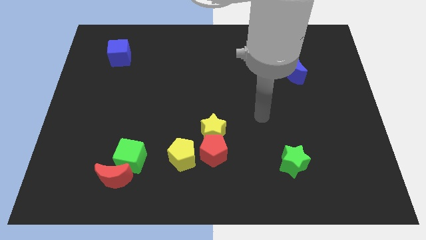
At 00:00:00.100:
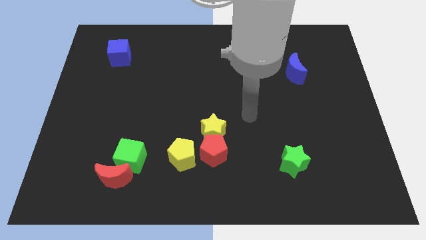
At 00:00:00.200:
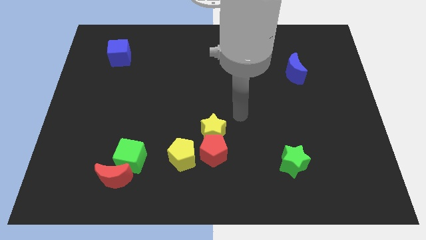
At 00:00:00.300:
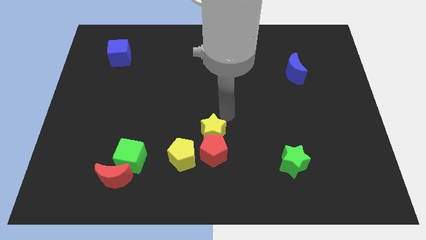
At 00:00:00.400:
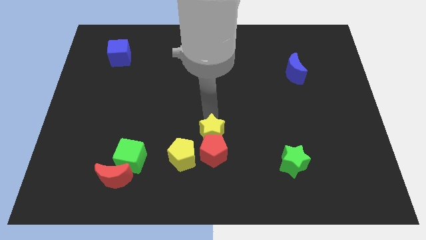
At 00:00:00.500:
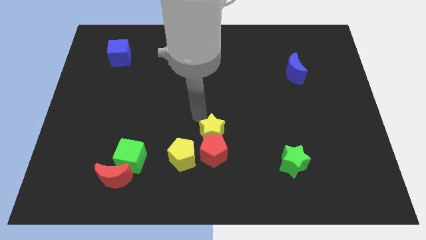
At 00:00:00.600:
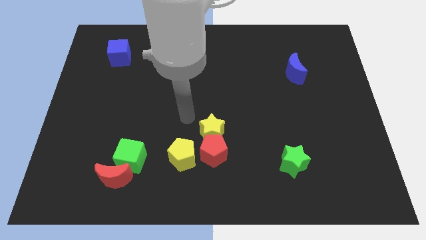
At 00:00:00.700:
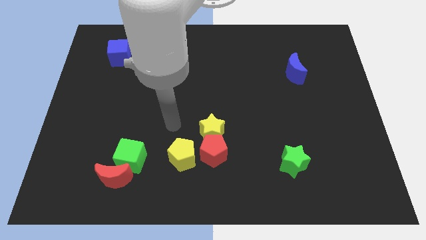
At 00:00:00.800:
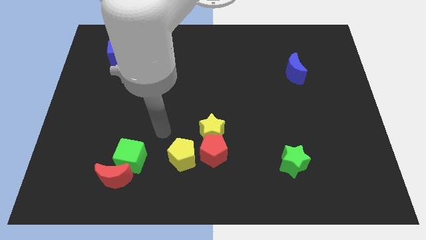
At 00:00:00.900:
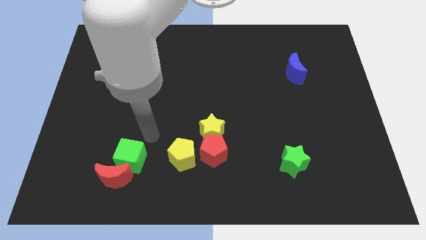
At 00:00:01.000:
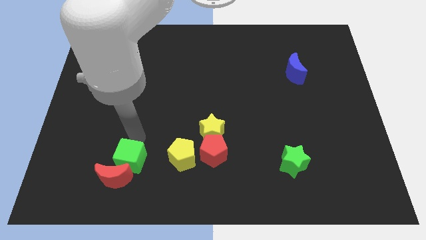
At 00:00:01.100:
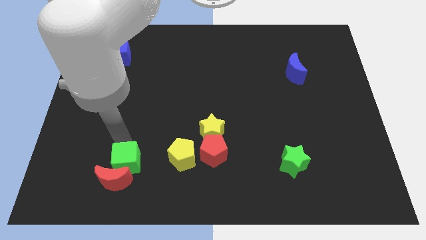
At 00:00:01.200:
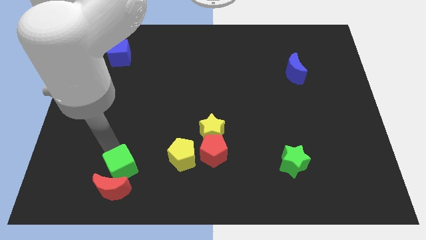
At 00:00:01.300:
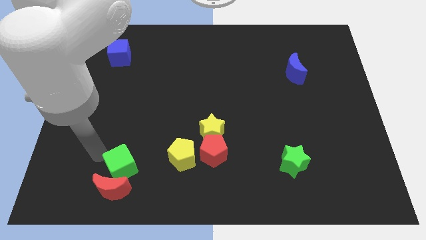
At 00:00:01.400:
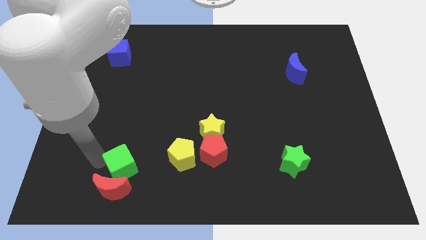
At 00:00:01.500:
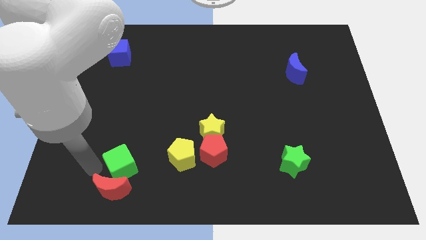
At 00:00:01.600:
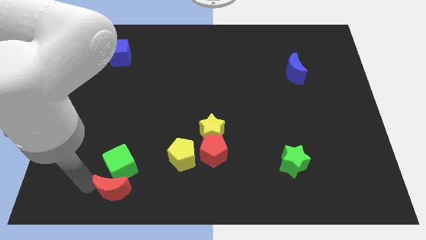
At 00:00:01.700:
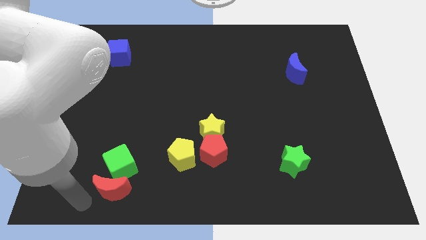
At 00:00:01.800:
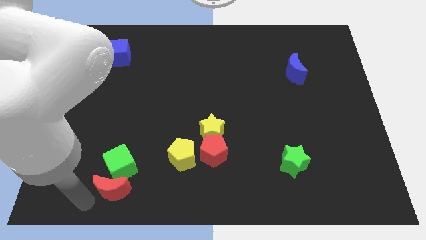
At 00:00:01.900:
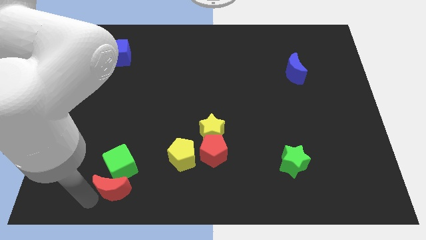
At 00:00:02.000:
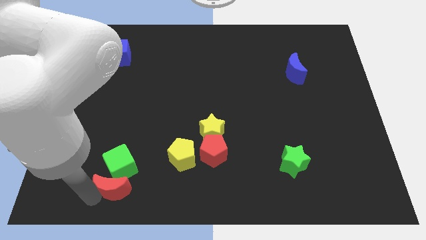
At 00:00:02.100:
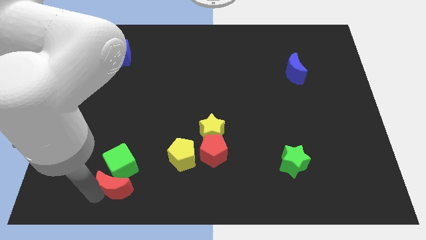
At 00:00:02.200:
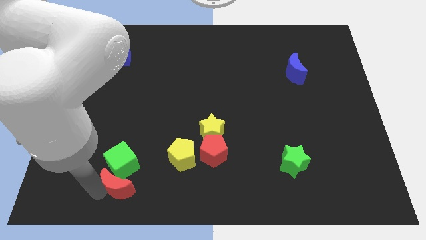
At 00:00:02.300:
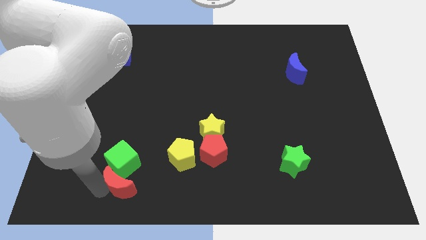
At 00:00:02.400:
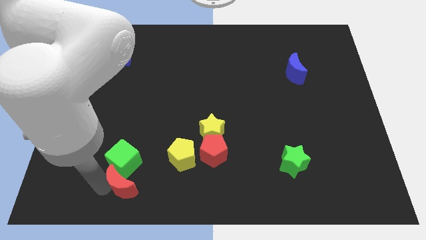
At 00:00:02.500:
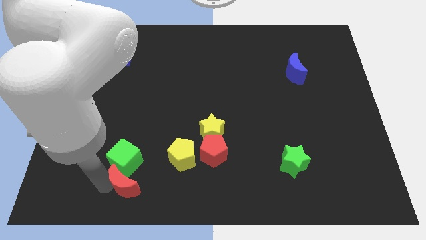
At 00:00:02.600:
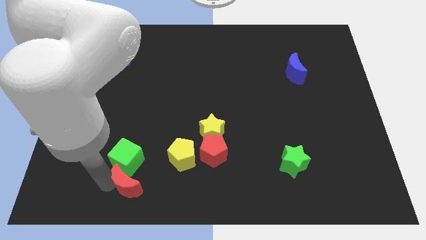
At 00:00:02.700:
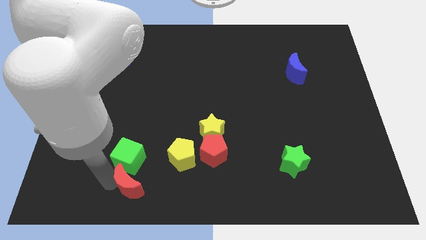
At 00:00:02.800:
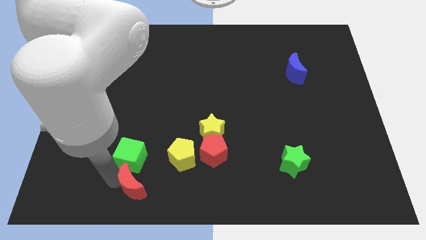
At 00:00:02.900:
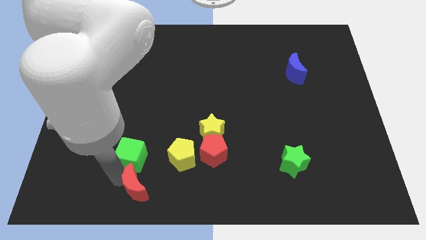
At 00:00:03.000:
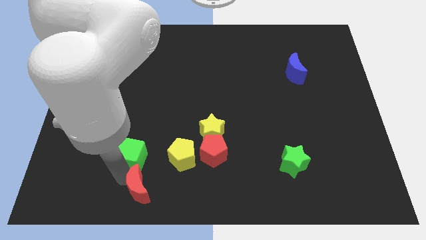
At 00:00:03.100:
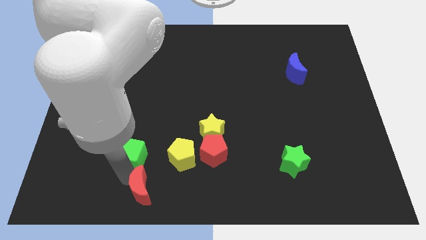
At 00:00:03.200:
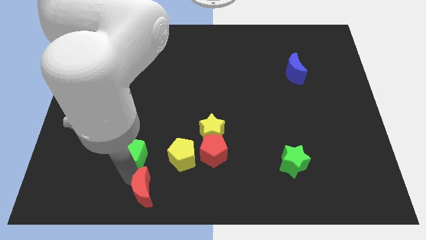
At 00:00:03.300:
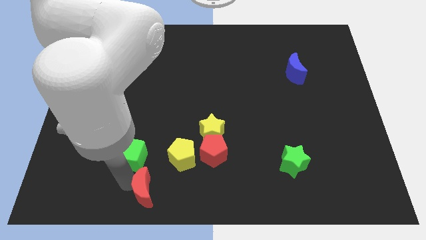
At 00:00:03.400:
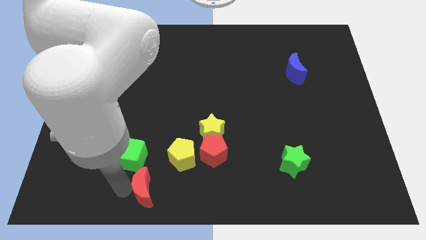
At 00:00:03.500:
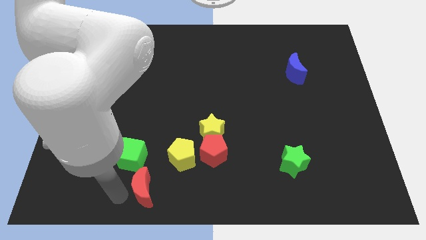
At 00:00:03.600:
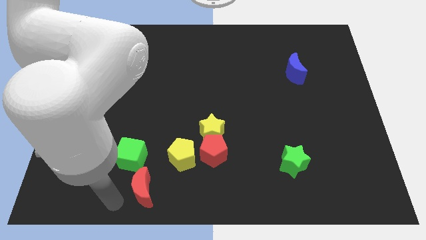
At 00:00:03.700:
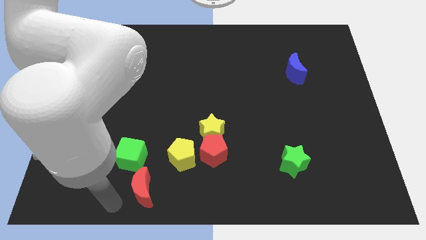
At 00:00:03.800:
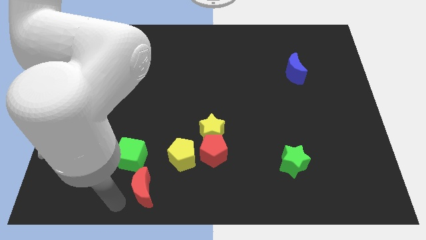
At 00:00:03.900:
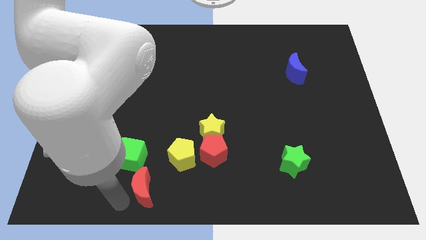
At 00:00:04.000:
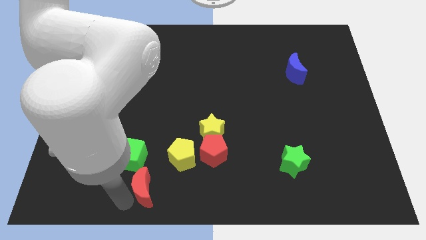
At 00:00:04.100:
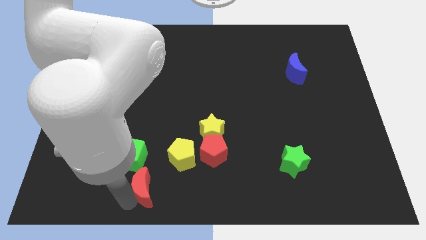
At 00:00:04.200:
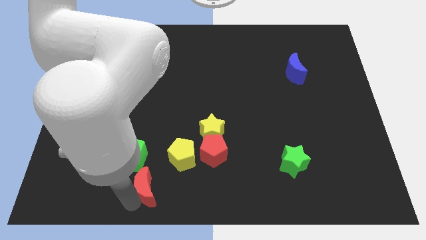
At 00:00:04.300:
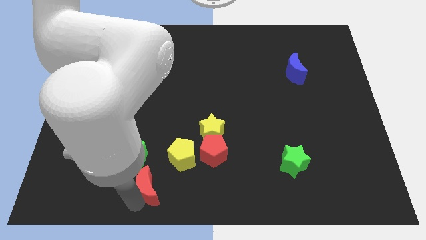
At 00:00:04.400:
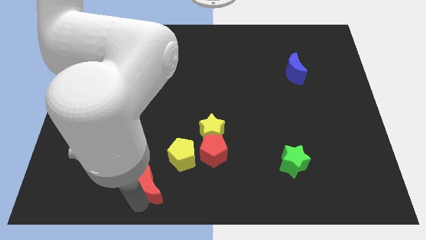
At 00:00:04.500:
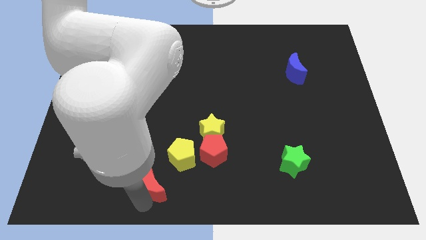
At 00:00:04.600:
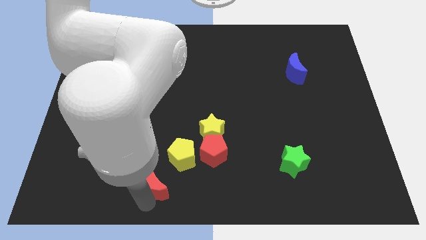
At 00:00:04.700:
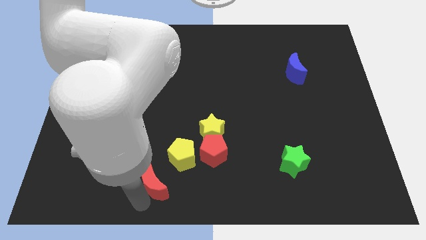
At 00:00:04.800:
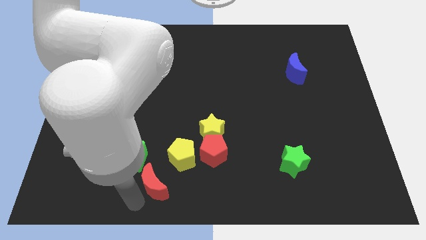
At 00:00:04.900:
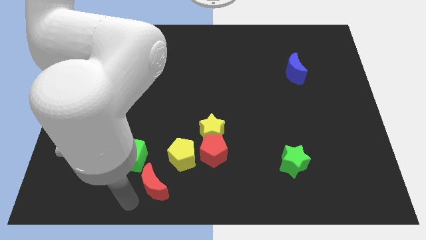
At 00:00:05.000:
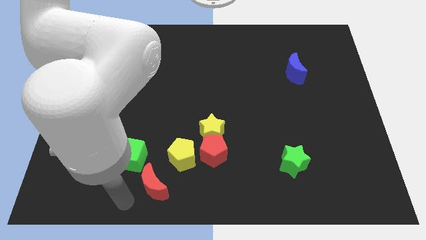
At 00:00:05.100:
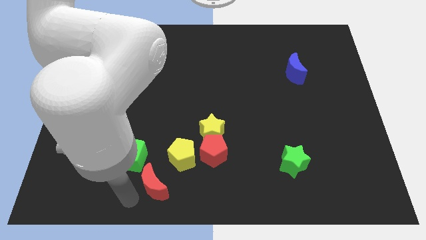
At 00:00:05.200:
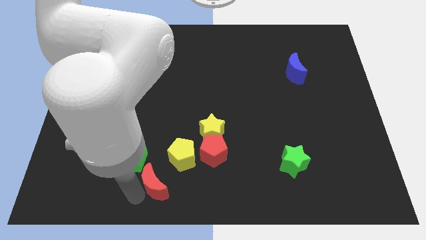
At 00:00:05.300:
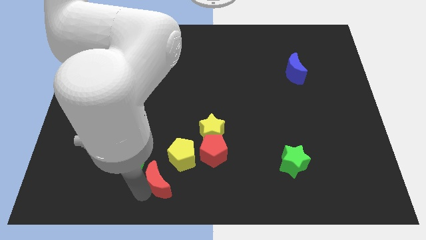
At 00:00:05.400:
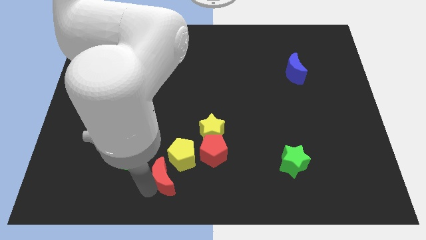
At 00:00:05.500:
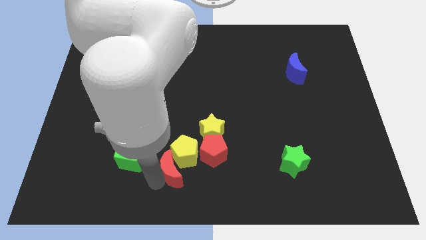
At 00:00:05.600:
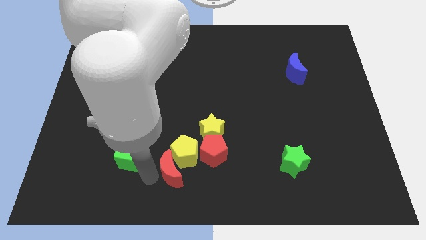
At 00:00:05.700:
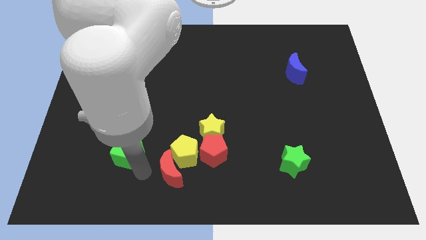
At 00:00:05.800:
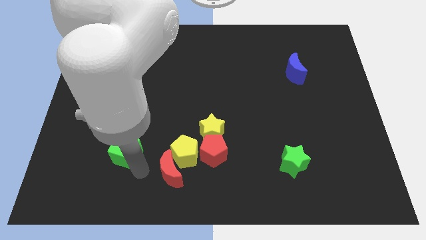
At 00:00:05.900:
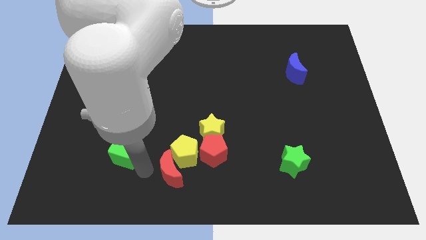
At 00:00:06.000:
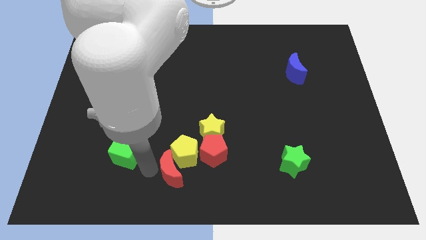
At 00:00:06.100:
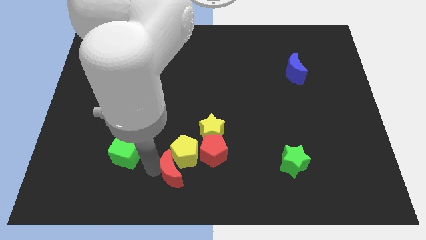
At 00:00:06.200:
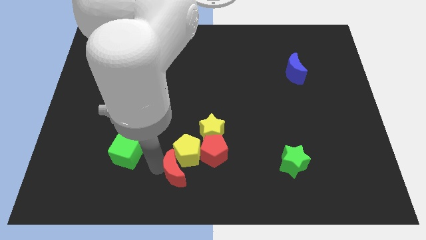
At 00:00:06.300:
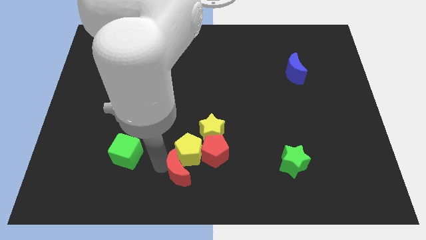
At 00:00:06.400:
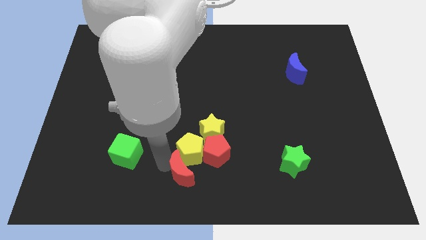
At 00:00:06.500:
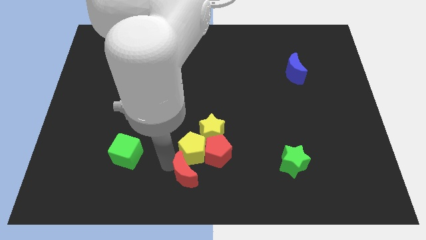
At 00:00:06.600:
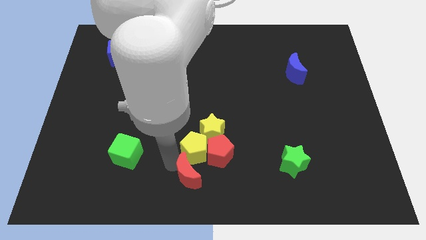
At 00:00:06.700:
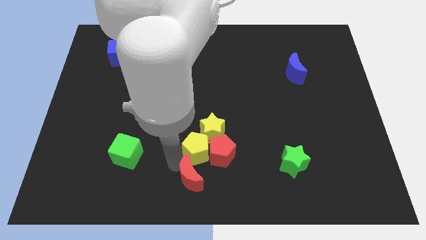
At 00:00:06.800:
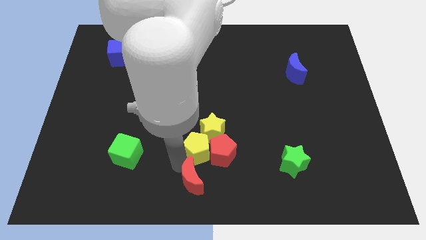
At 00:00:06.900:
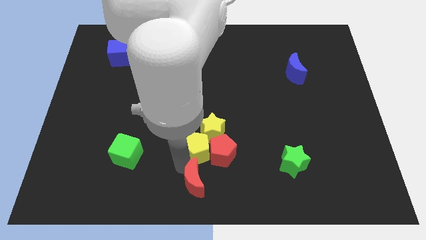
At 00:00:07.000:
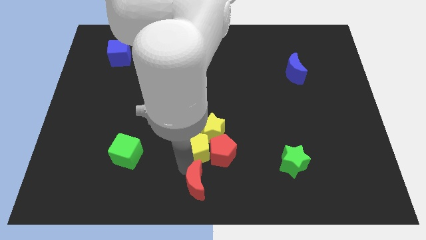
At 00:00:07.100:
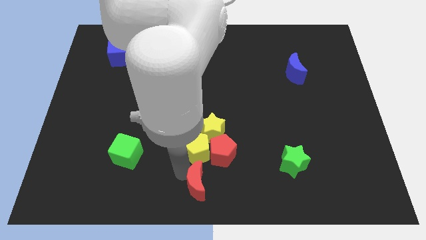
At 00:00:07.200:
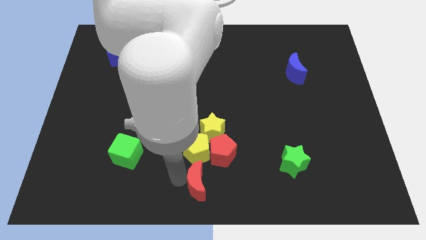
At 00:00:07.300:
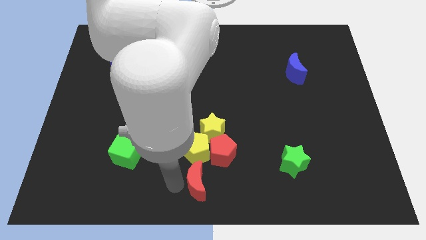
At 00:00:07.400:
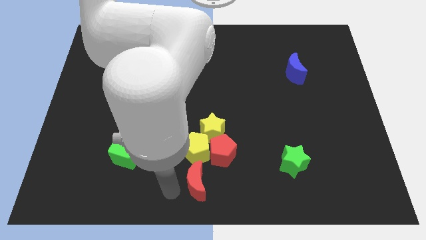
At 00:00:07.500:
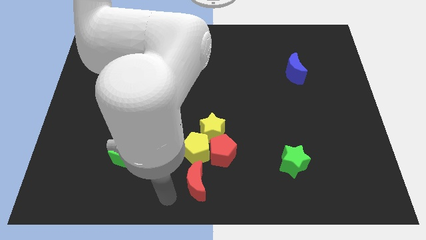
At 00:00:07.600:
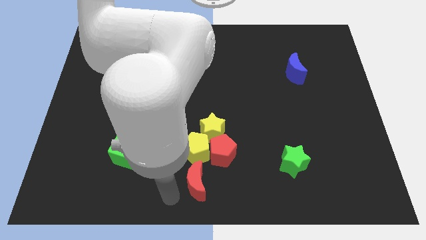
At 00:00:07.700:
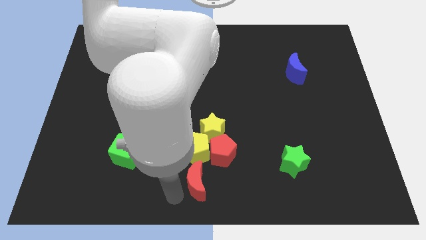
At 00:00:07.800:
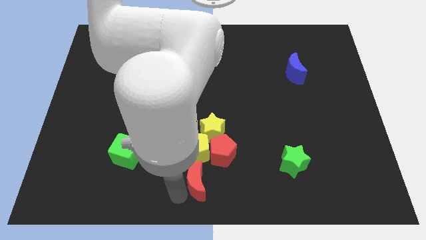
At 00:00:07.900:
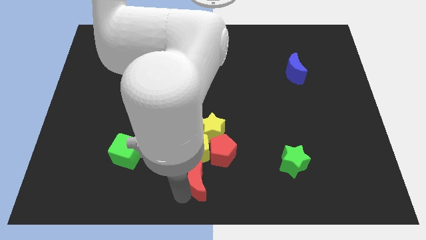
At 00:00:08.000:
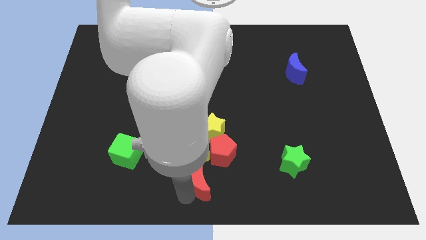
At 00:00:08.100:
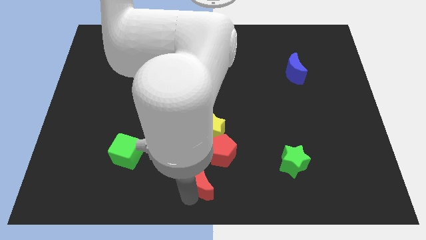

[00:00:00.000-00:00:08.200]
put the red moon diagonally down and to the right of the yellow pentagon
